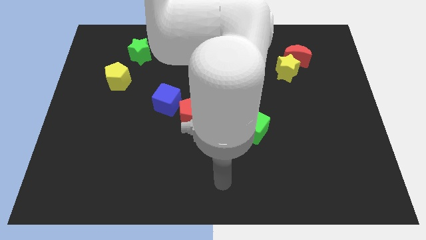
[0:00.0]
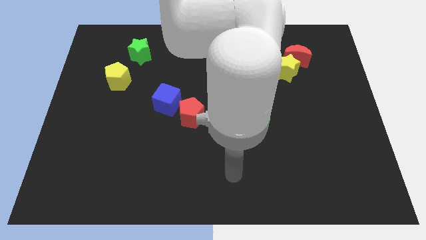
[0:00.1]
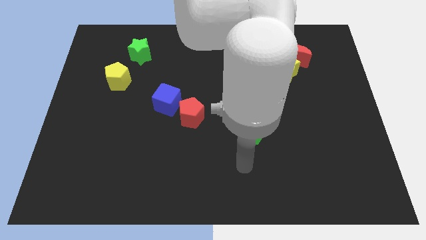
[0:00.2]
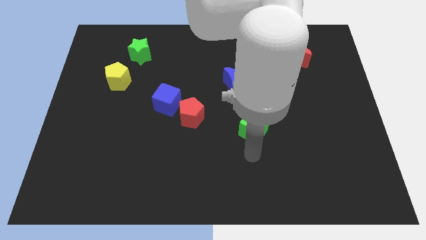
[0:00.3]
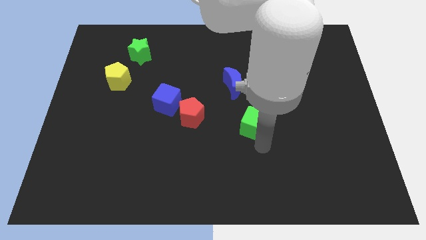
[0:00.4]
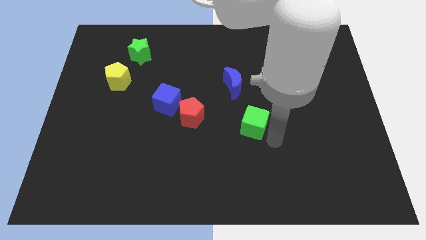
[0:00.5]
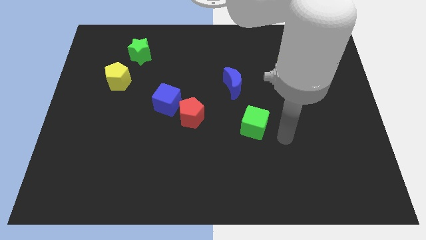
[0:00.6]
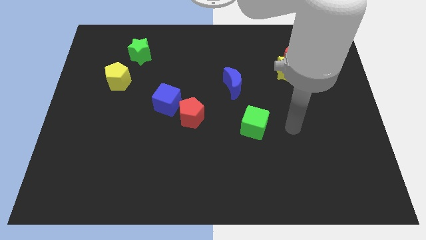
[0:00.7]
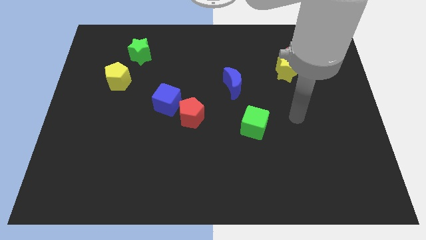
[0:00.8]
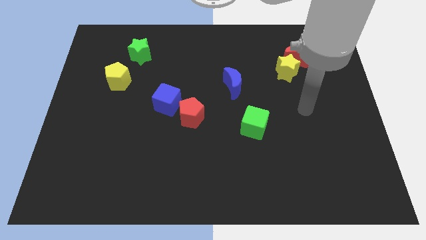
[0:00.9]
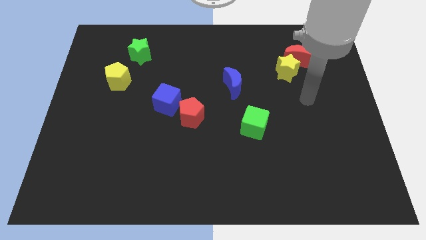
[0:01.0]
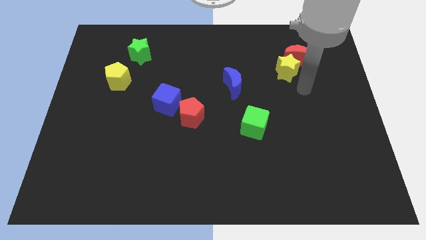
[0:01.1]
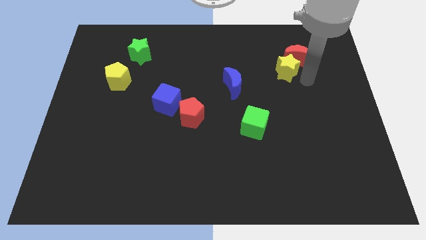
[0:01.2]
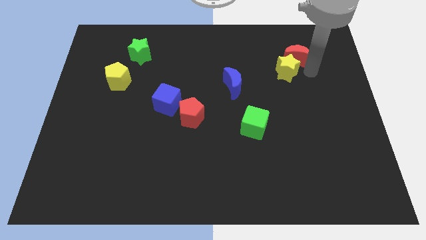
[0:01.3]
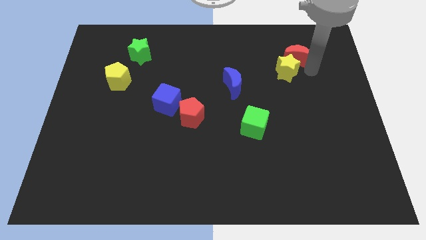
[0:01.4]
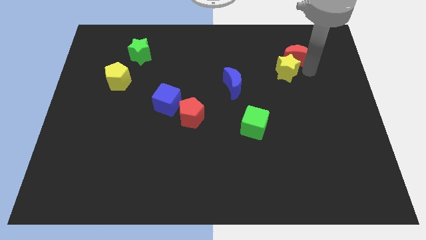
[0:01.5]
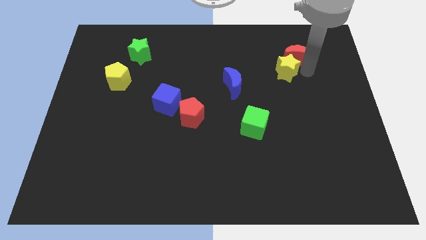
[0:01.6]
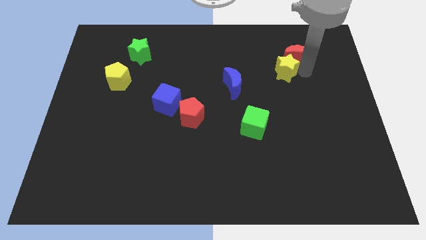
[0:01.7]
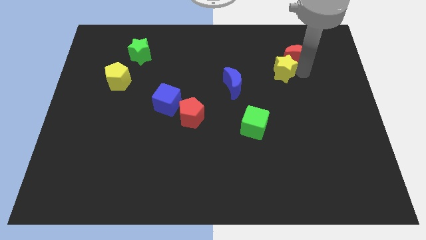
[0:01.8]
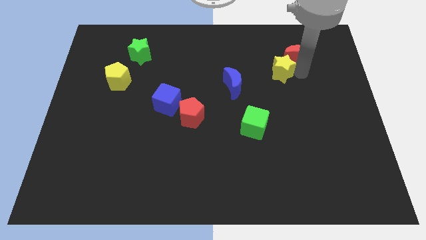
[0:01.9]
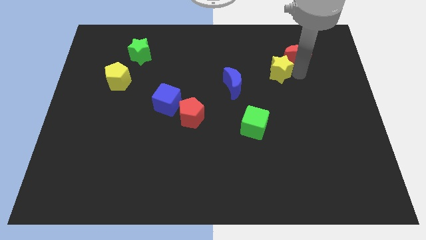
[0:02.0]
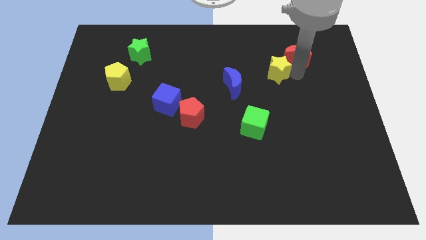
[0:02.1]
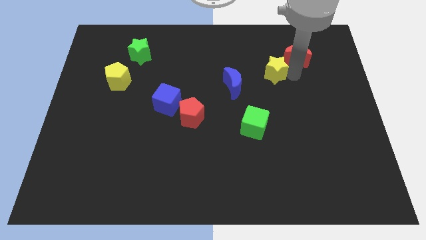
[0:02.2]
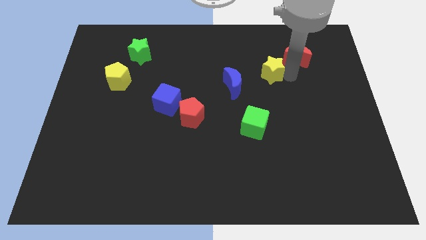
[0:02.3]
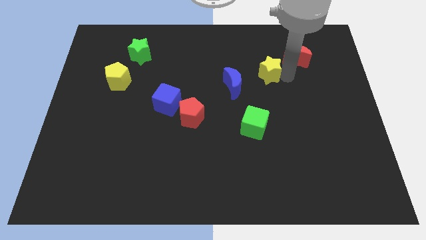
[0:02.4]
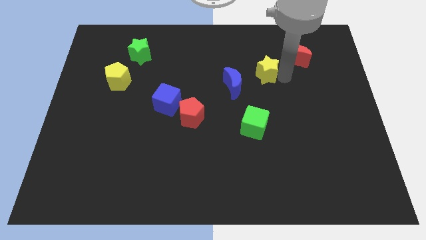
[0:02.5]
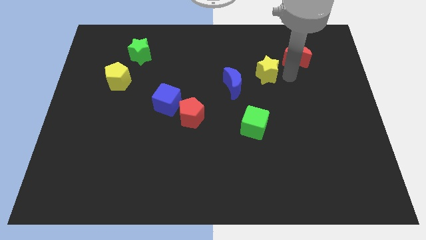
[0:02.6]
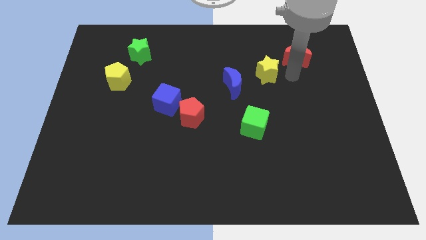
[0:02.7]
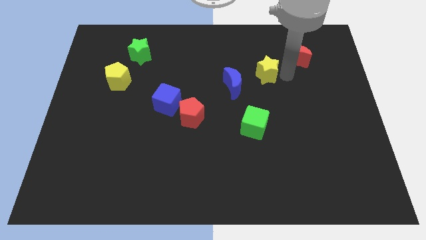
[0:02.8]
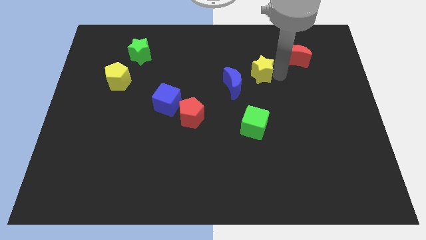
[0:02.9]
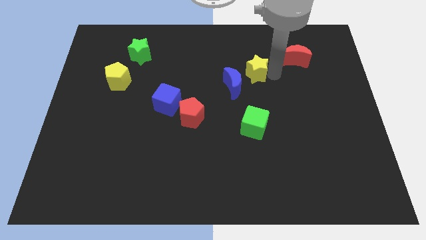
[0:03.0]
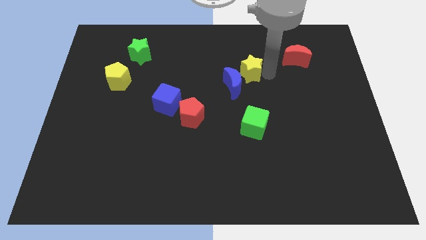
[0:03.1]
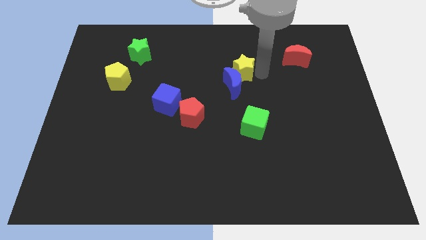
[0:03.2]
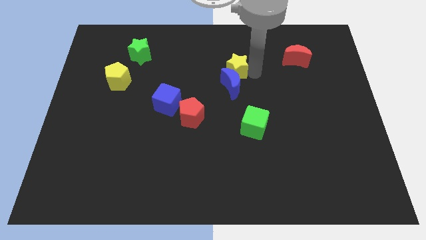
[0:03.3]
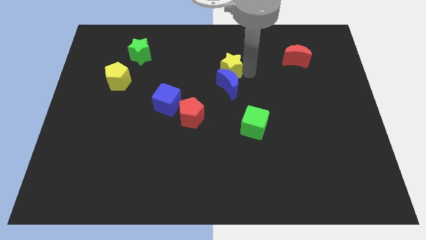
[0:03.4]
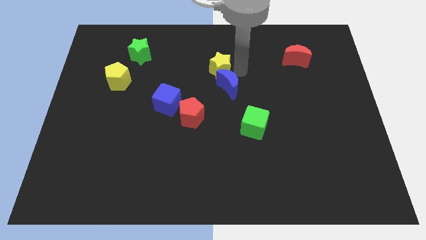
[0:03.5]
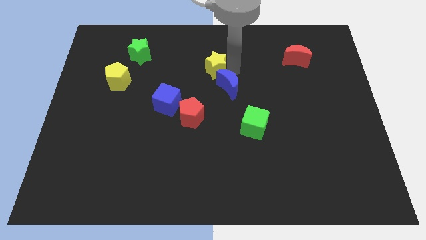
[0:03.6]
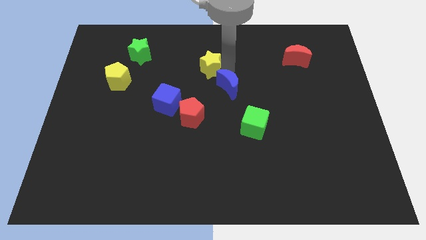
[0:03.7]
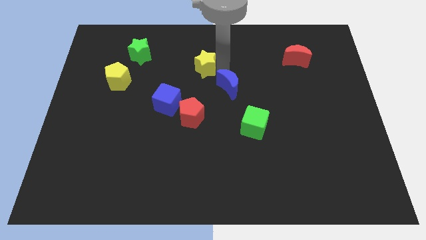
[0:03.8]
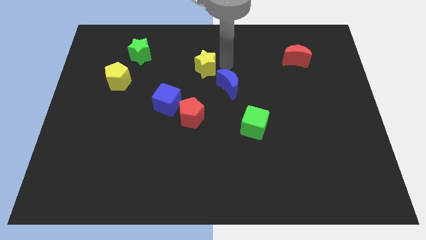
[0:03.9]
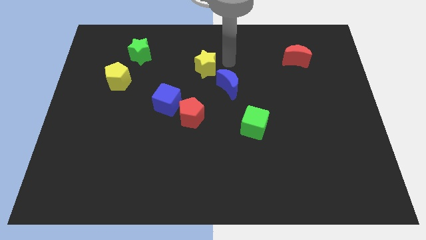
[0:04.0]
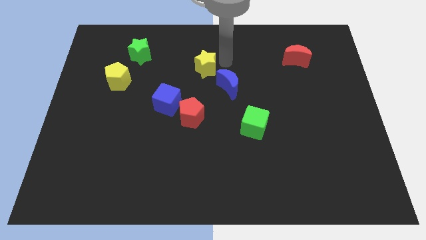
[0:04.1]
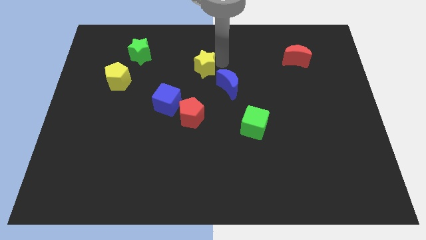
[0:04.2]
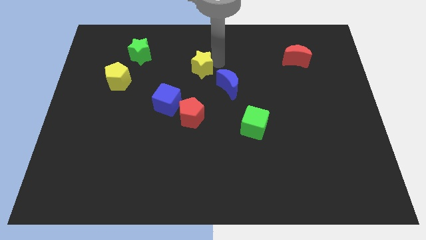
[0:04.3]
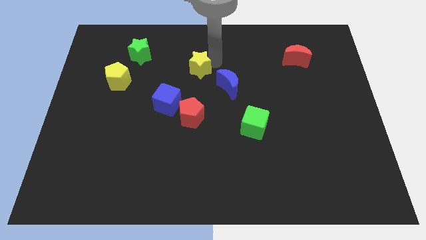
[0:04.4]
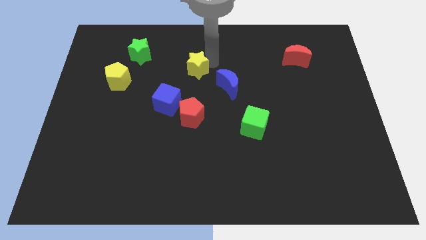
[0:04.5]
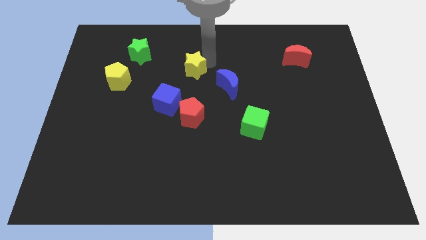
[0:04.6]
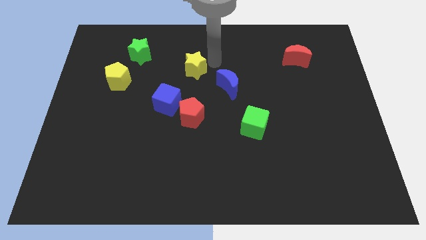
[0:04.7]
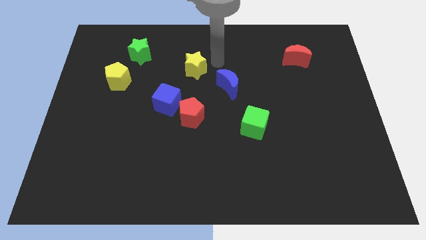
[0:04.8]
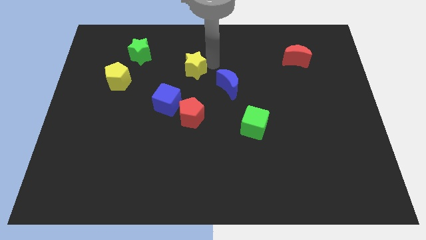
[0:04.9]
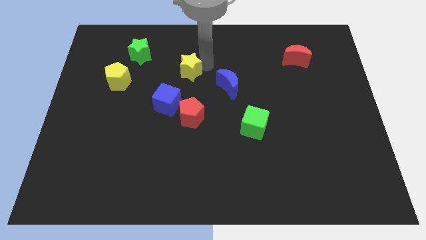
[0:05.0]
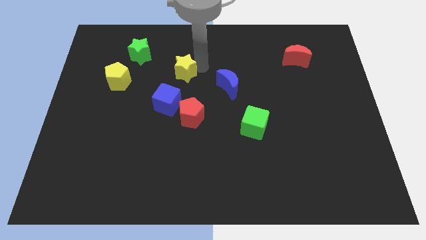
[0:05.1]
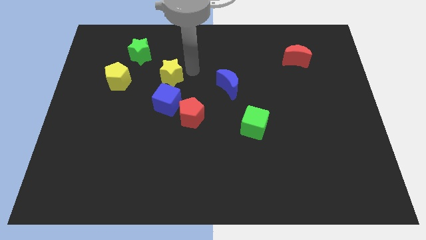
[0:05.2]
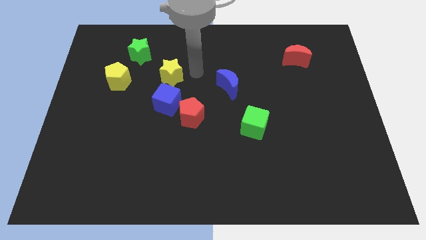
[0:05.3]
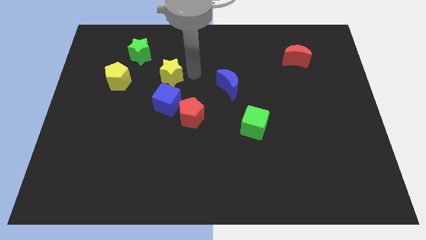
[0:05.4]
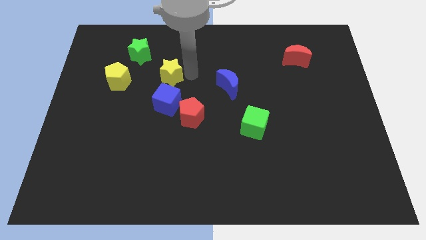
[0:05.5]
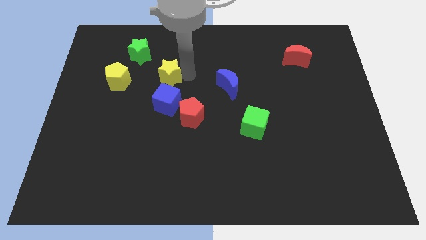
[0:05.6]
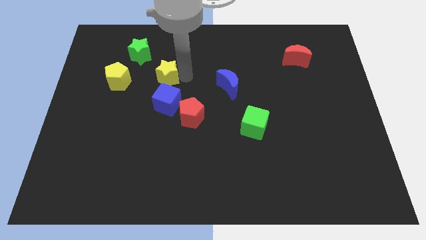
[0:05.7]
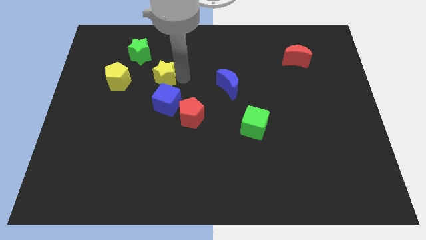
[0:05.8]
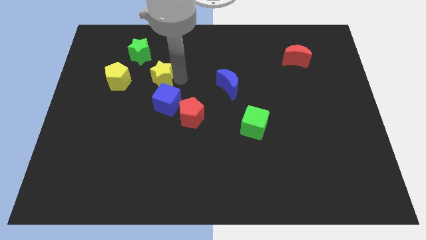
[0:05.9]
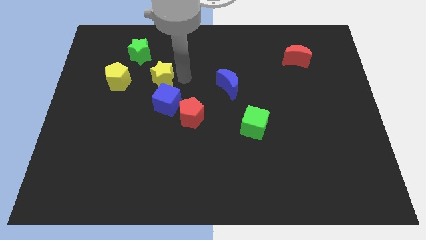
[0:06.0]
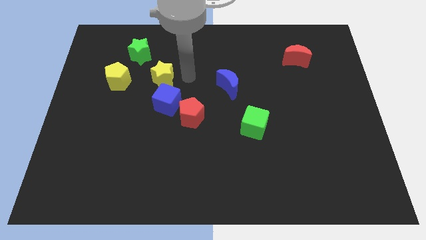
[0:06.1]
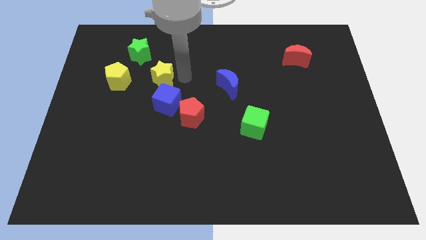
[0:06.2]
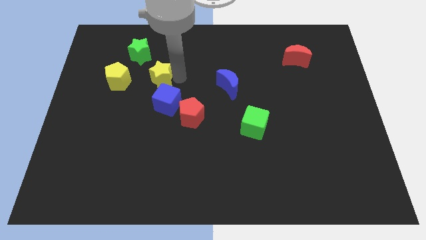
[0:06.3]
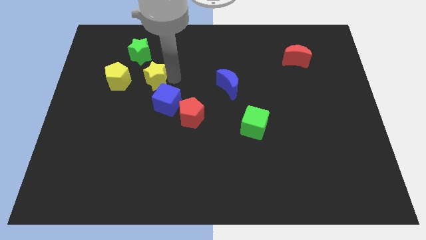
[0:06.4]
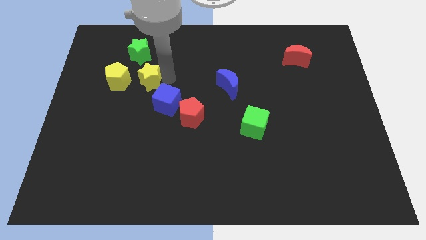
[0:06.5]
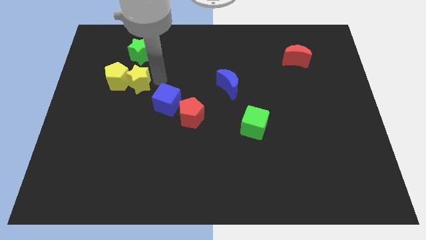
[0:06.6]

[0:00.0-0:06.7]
put the yellow star to the yellow pentagon

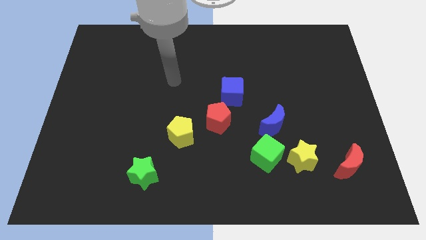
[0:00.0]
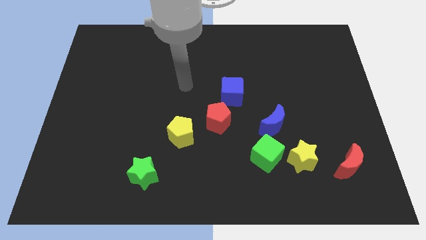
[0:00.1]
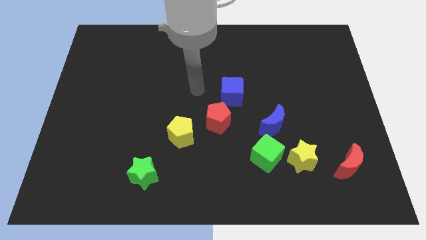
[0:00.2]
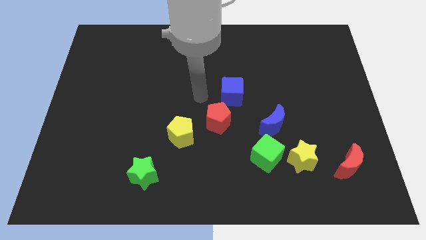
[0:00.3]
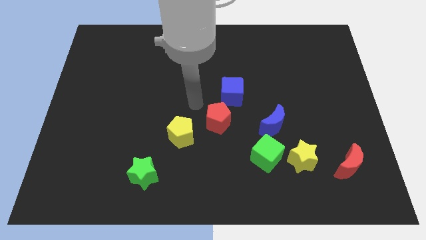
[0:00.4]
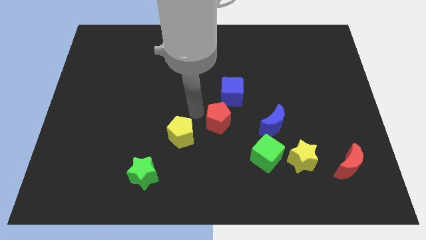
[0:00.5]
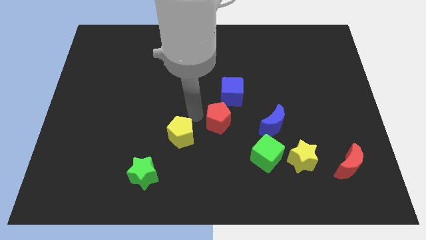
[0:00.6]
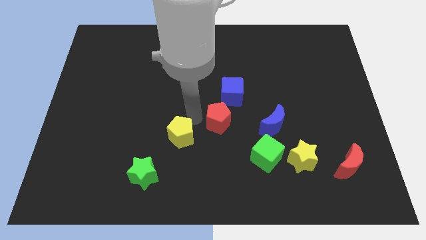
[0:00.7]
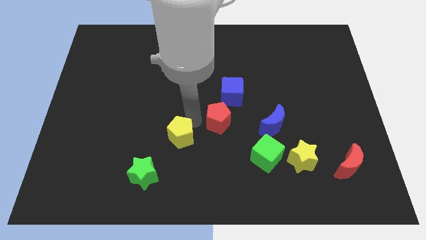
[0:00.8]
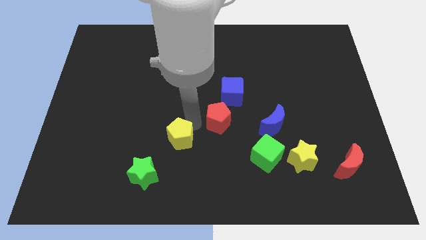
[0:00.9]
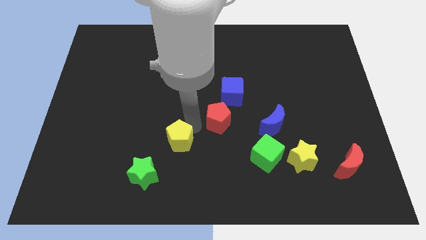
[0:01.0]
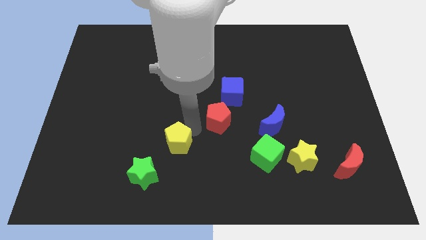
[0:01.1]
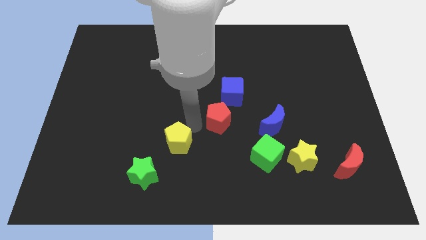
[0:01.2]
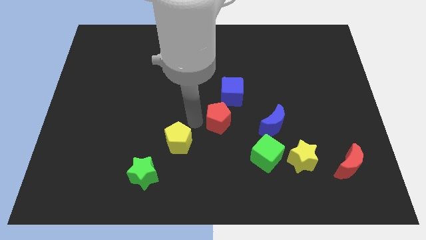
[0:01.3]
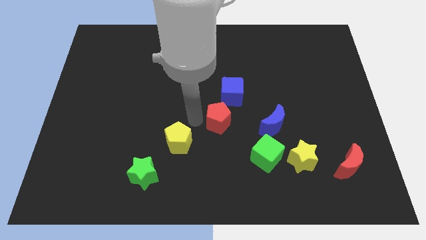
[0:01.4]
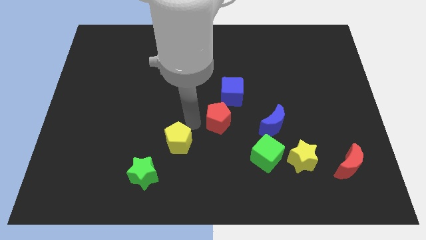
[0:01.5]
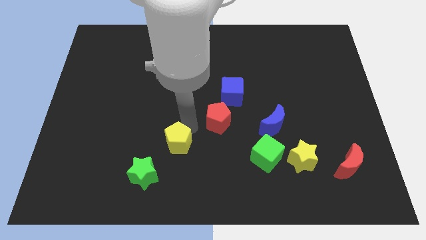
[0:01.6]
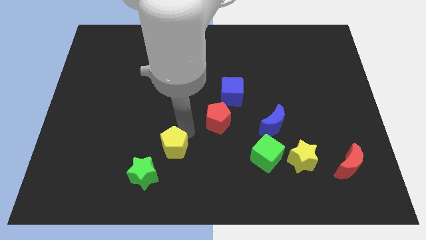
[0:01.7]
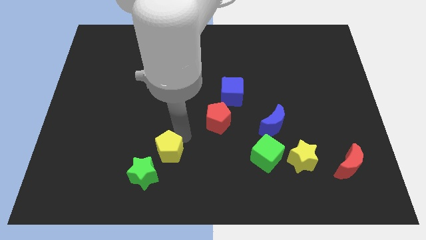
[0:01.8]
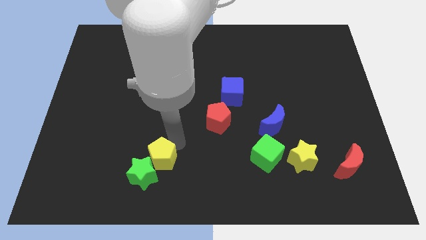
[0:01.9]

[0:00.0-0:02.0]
push the yellow pentagon close to the green star
